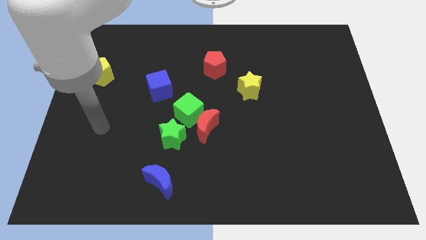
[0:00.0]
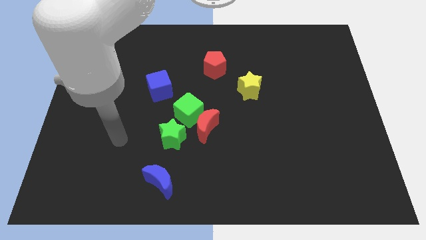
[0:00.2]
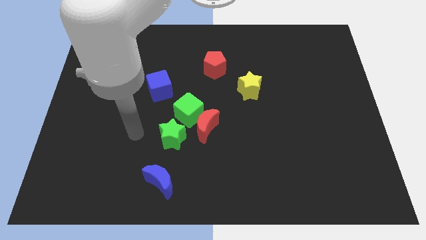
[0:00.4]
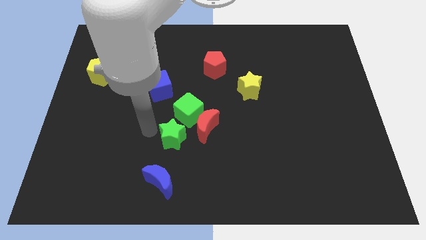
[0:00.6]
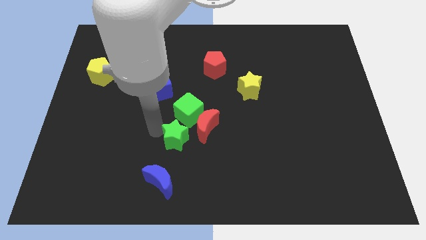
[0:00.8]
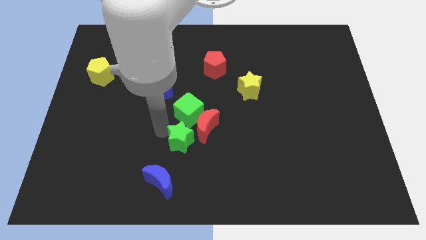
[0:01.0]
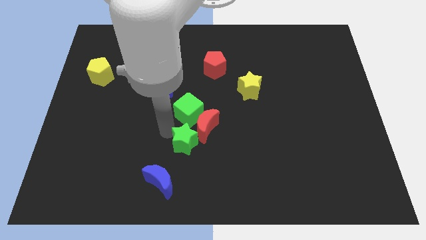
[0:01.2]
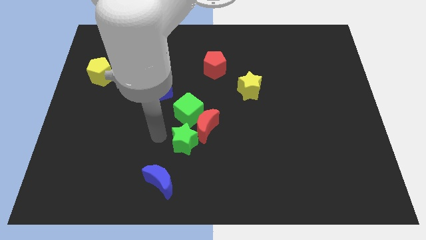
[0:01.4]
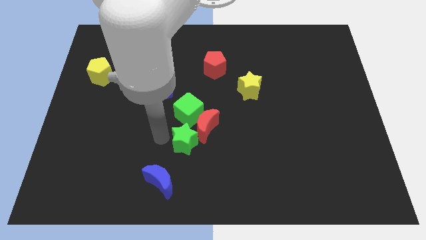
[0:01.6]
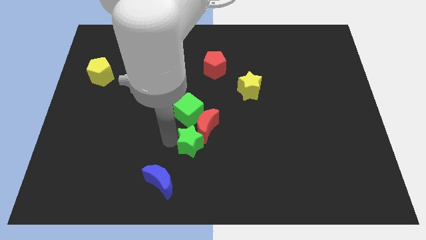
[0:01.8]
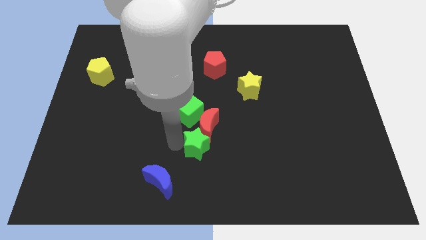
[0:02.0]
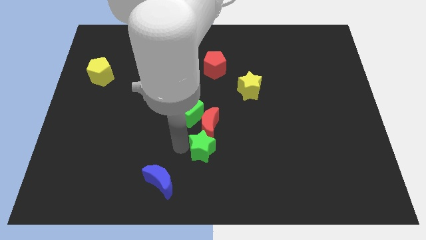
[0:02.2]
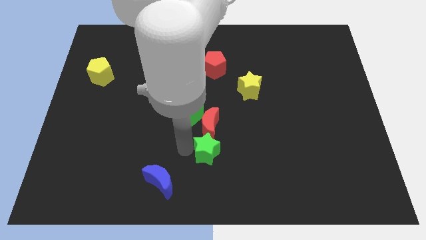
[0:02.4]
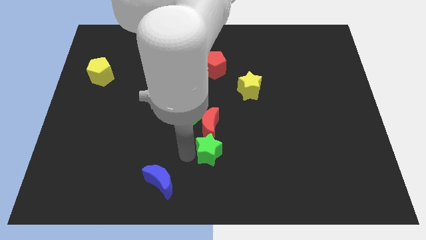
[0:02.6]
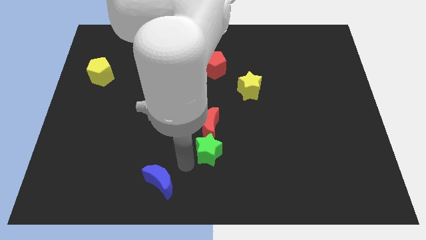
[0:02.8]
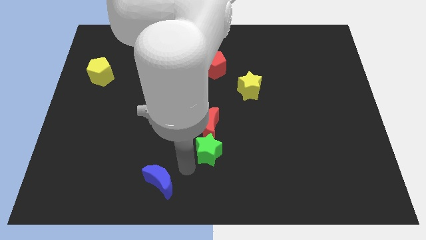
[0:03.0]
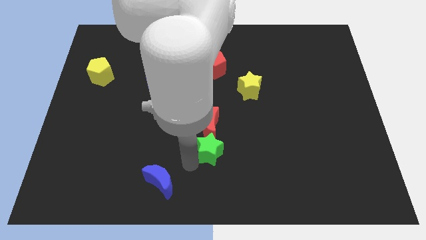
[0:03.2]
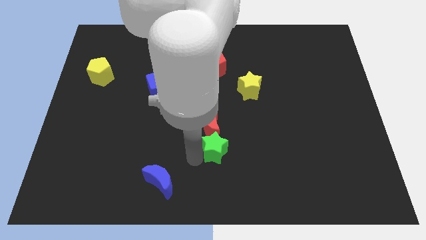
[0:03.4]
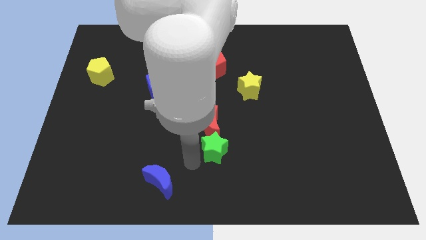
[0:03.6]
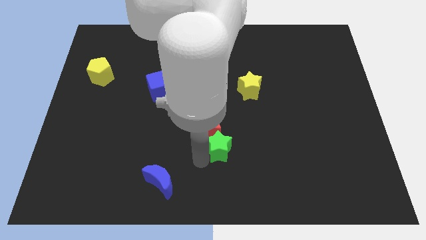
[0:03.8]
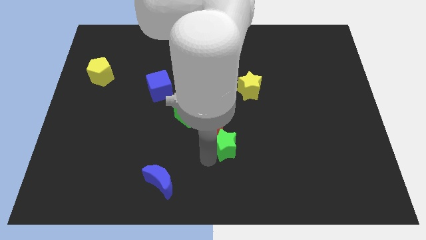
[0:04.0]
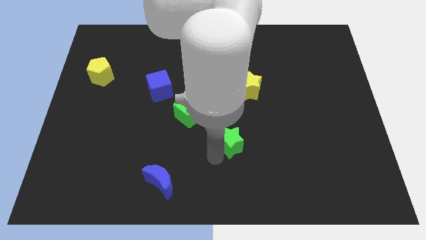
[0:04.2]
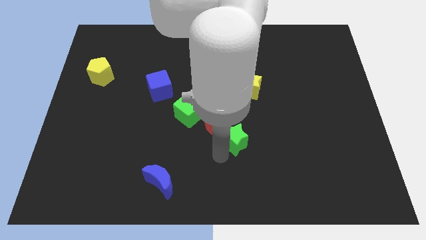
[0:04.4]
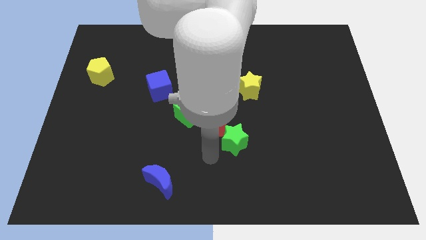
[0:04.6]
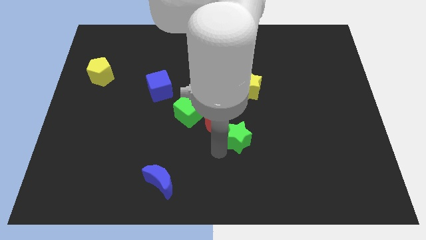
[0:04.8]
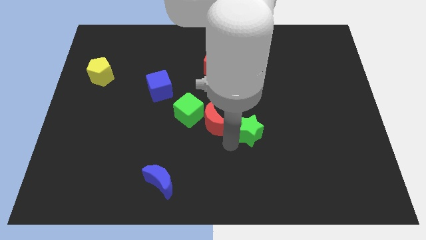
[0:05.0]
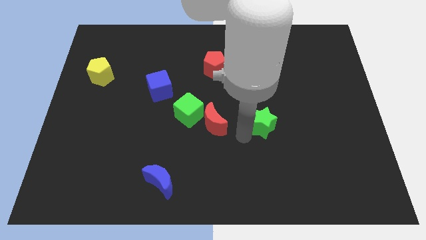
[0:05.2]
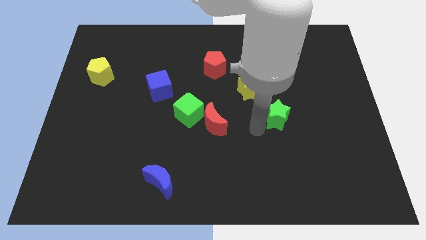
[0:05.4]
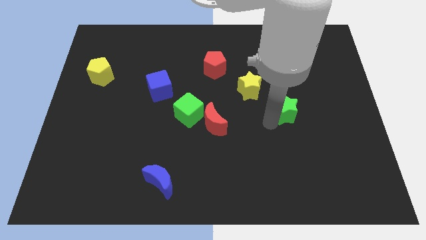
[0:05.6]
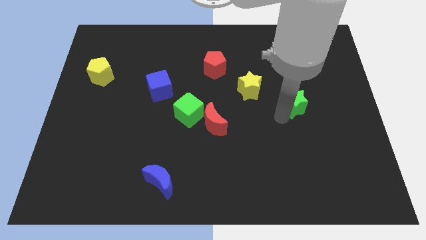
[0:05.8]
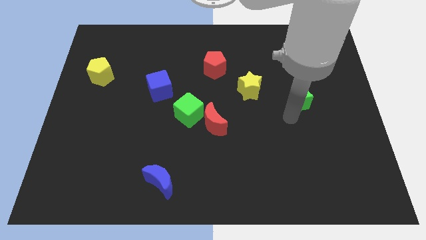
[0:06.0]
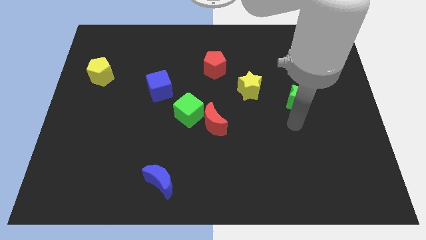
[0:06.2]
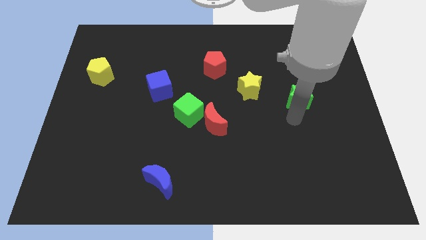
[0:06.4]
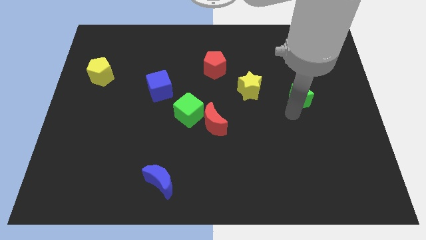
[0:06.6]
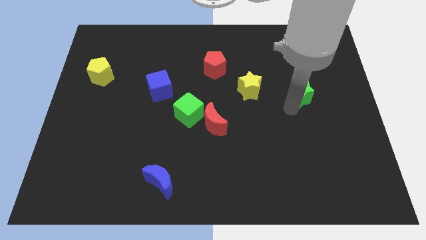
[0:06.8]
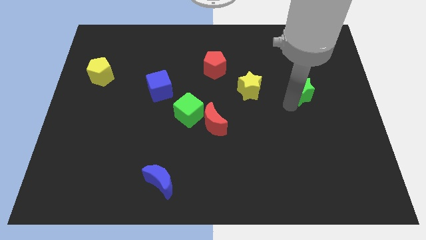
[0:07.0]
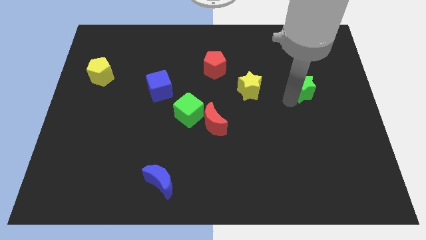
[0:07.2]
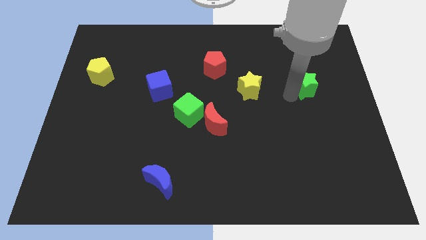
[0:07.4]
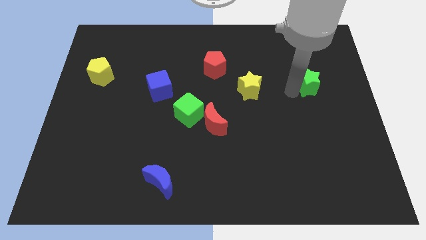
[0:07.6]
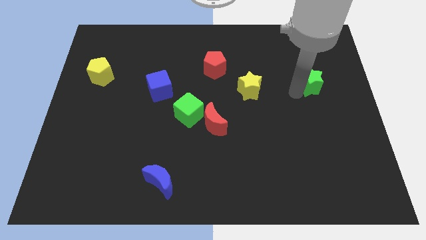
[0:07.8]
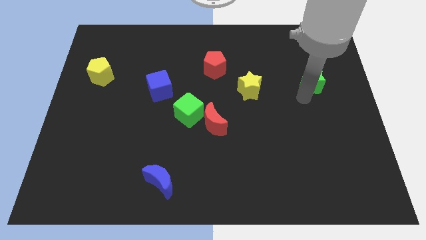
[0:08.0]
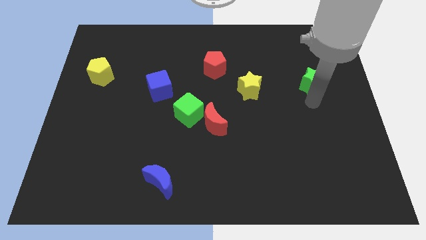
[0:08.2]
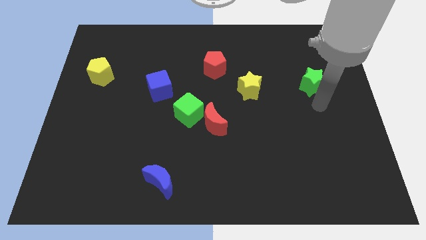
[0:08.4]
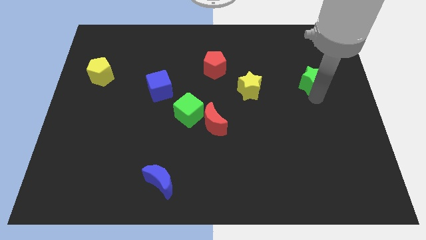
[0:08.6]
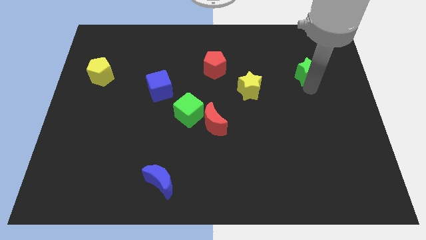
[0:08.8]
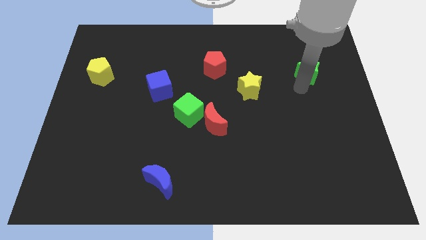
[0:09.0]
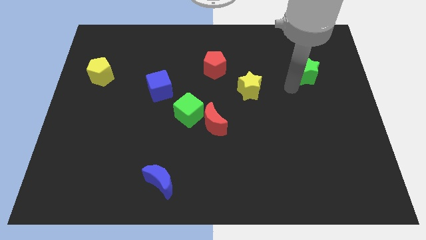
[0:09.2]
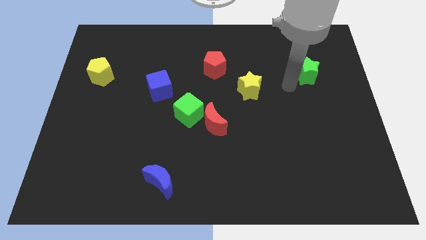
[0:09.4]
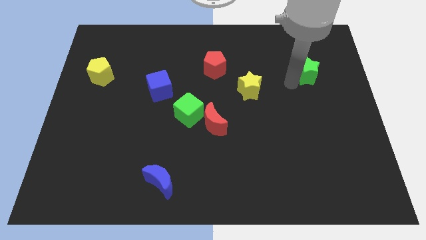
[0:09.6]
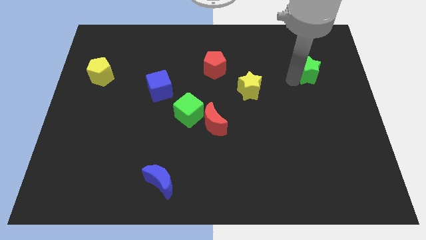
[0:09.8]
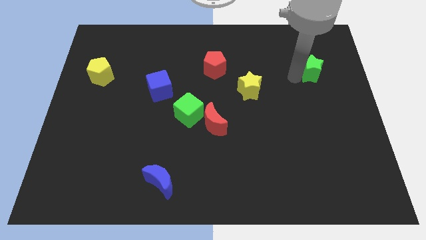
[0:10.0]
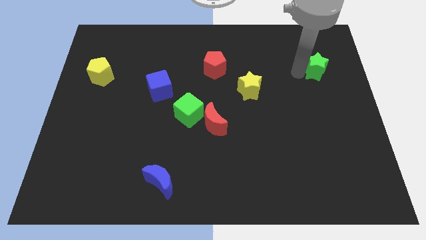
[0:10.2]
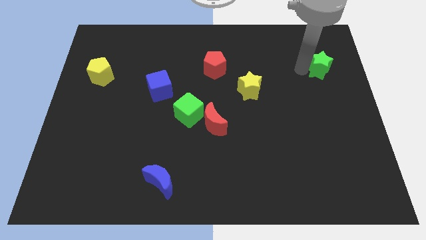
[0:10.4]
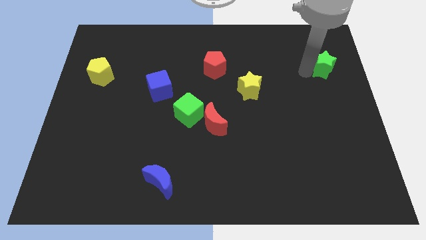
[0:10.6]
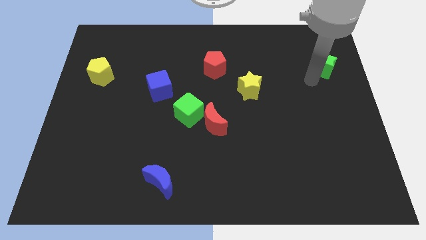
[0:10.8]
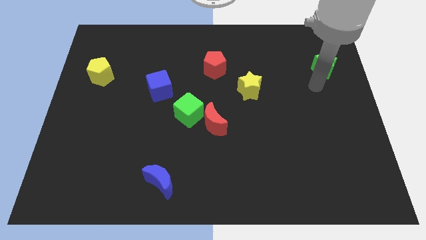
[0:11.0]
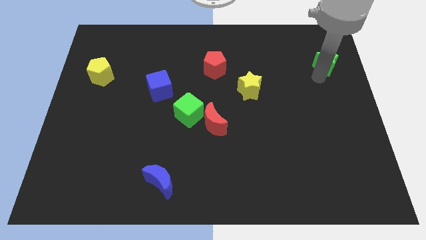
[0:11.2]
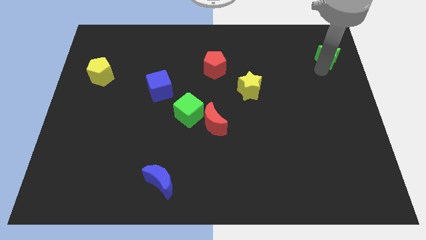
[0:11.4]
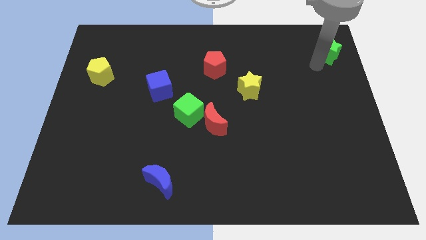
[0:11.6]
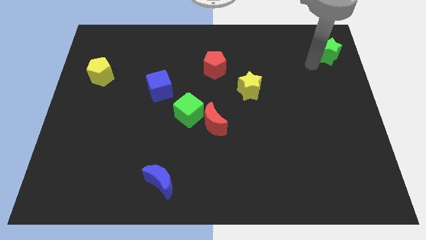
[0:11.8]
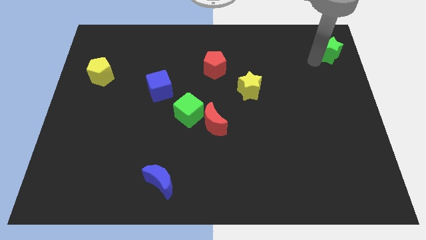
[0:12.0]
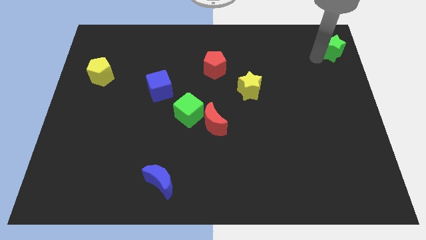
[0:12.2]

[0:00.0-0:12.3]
put the green star to the top right

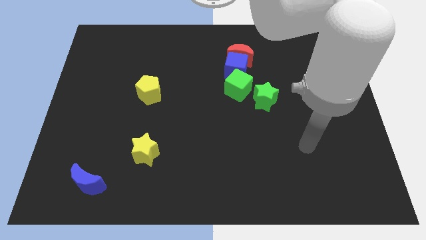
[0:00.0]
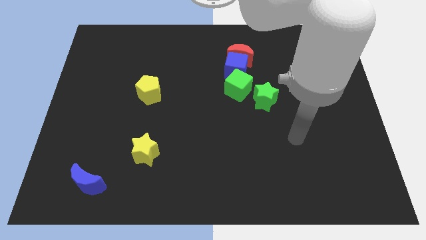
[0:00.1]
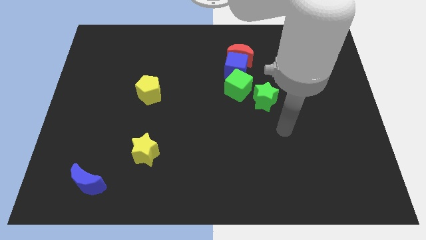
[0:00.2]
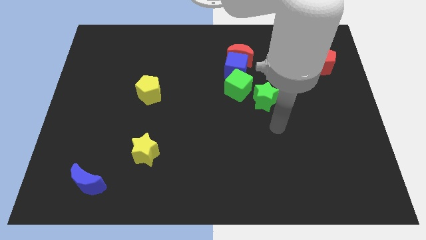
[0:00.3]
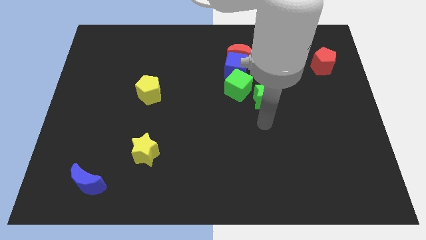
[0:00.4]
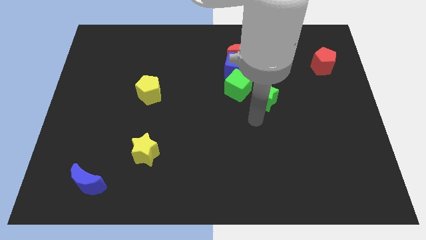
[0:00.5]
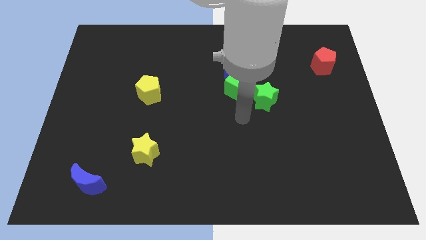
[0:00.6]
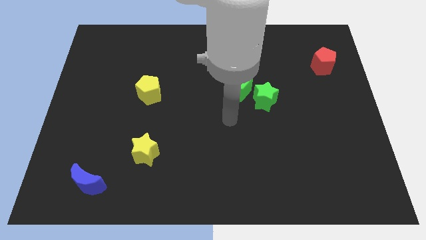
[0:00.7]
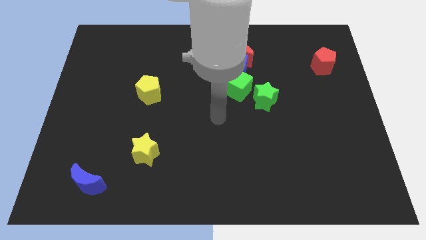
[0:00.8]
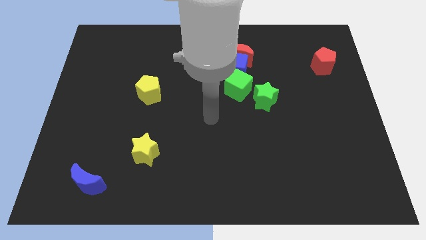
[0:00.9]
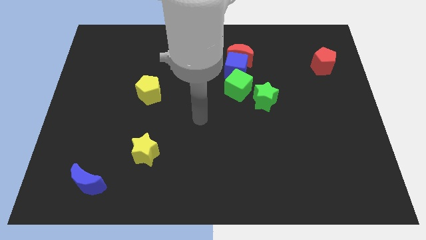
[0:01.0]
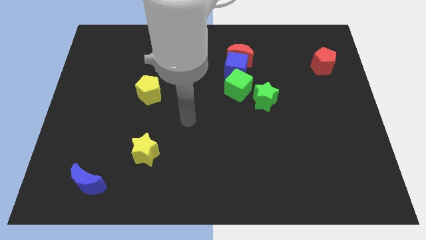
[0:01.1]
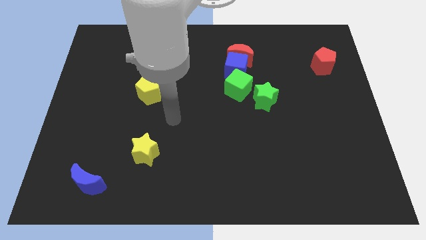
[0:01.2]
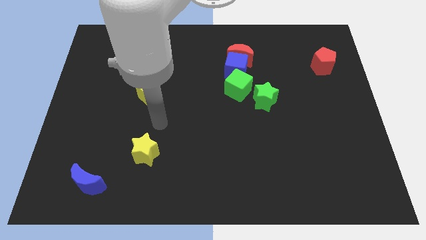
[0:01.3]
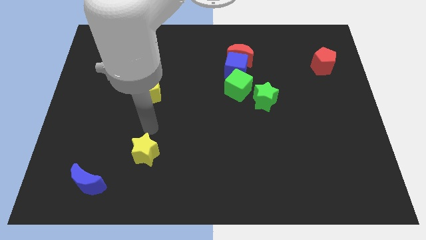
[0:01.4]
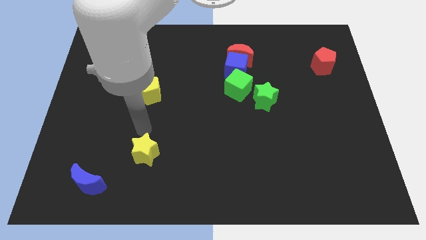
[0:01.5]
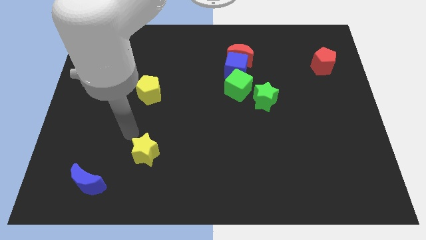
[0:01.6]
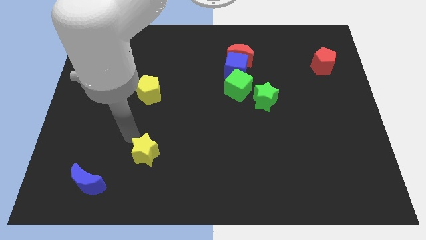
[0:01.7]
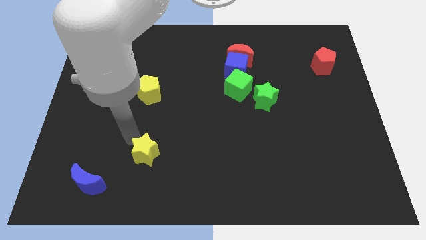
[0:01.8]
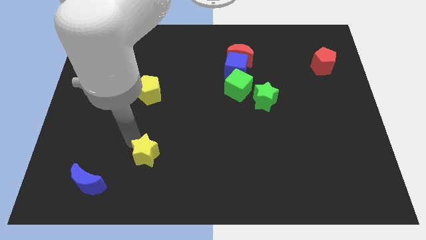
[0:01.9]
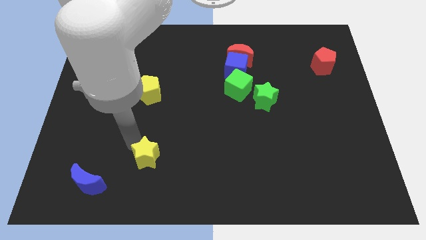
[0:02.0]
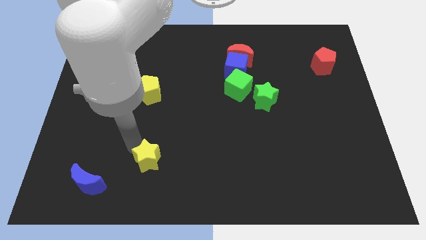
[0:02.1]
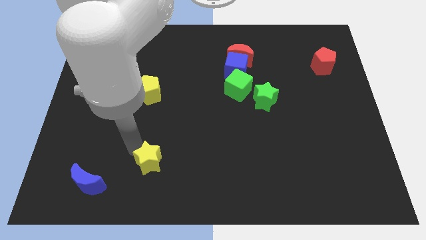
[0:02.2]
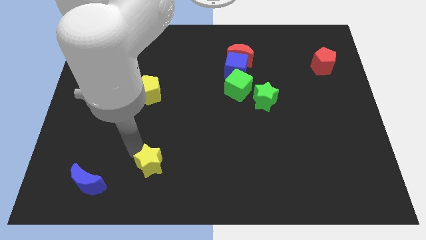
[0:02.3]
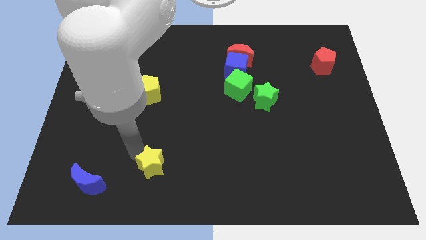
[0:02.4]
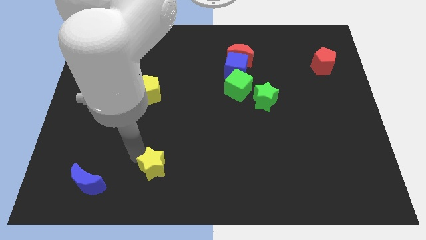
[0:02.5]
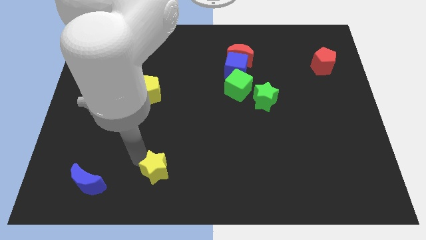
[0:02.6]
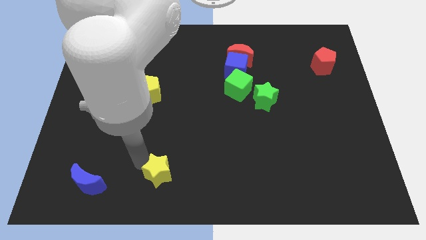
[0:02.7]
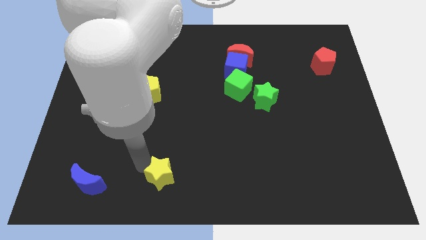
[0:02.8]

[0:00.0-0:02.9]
slide the yellow star to the bottom
